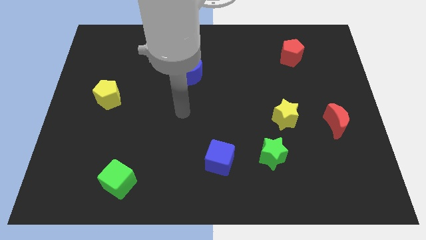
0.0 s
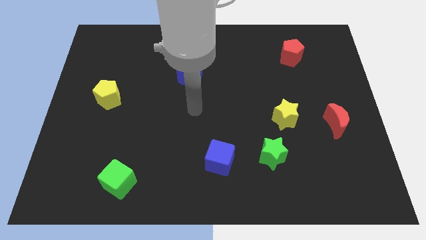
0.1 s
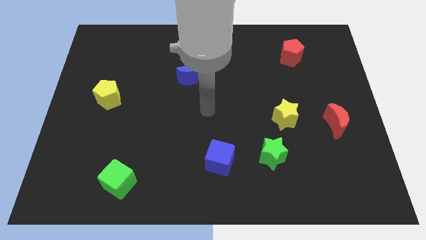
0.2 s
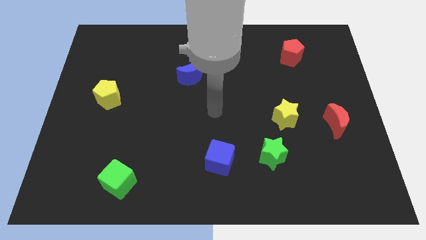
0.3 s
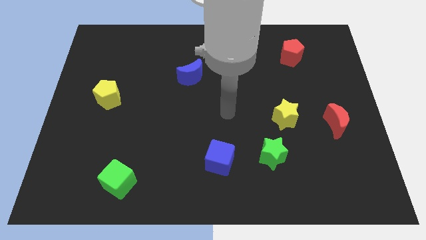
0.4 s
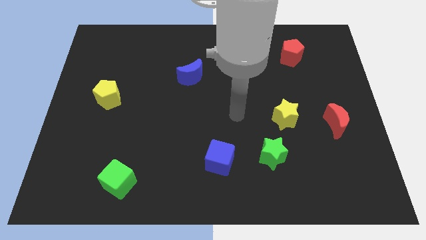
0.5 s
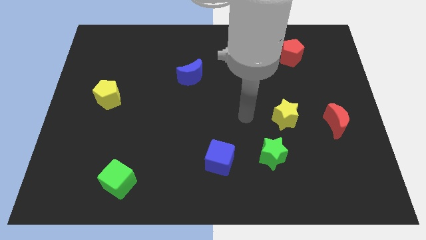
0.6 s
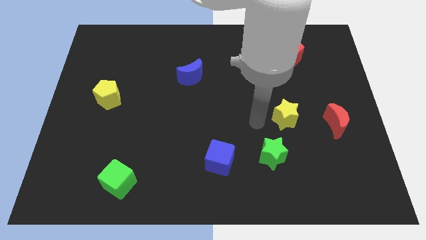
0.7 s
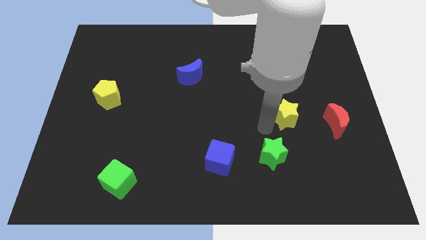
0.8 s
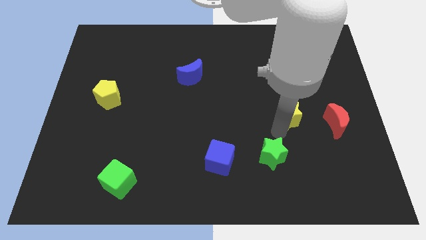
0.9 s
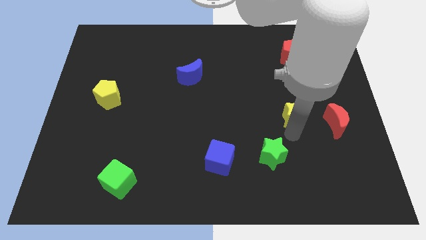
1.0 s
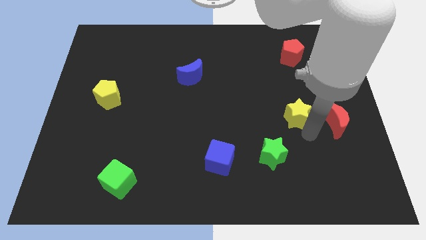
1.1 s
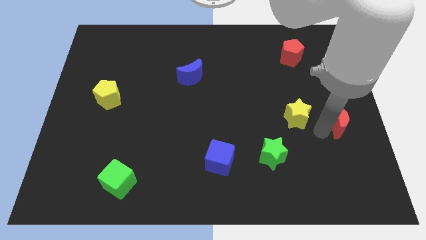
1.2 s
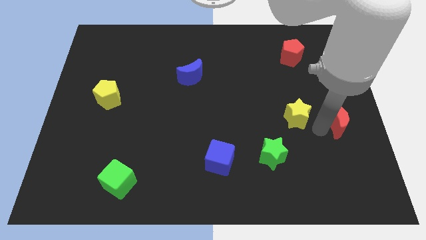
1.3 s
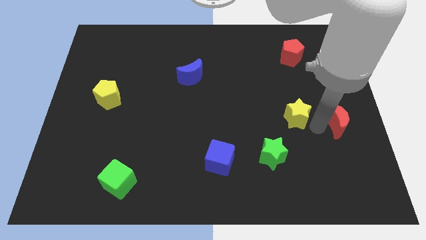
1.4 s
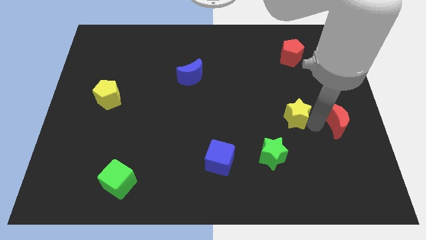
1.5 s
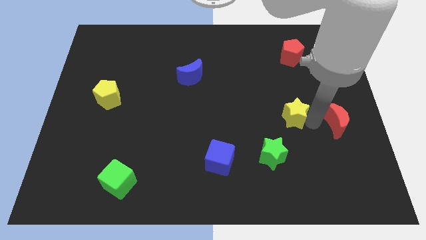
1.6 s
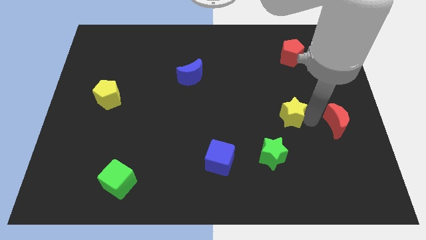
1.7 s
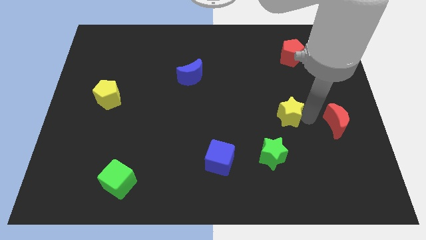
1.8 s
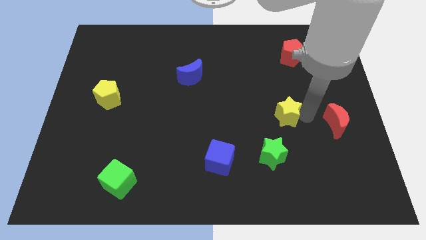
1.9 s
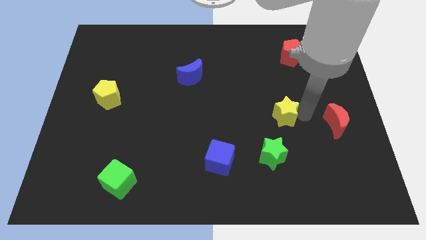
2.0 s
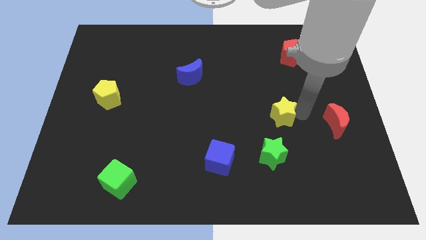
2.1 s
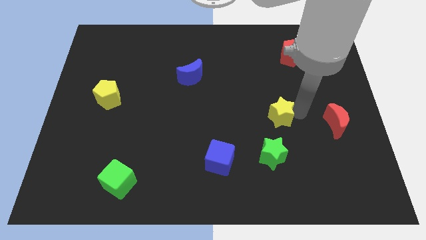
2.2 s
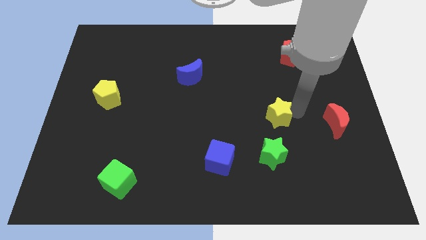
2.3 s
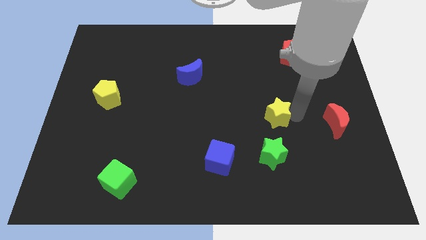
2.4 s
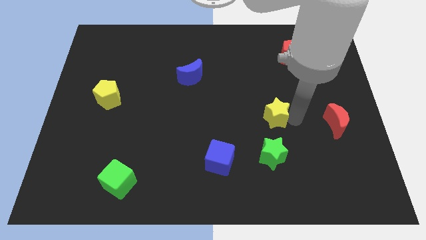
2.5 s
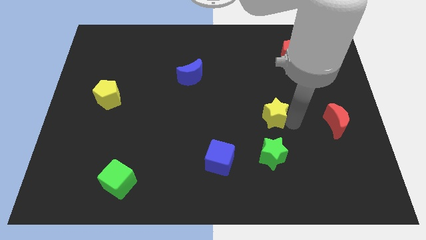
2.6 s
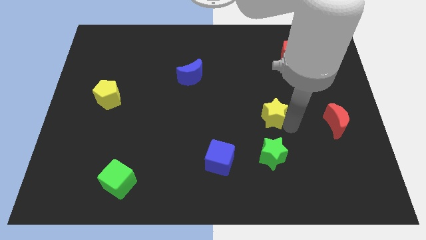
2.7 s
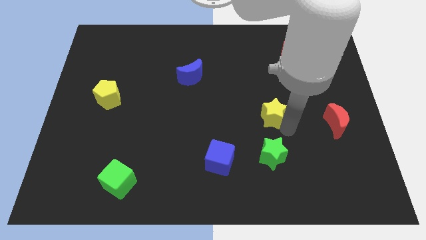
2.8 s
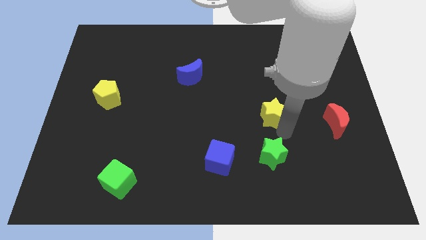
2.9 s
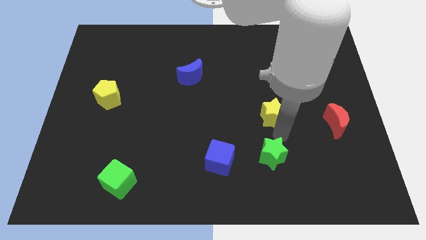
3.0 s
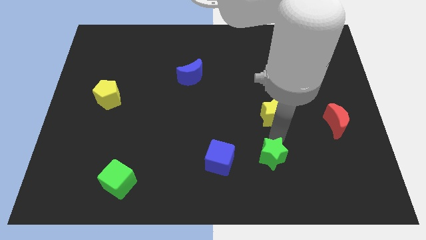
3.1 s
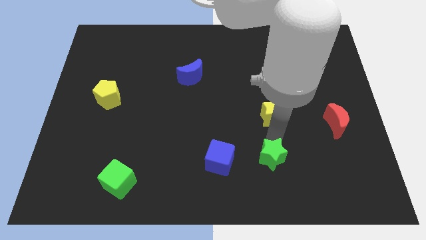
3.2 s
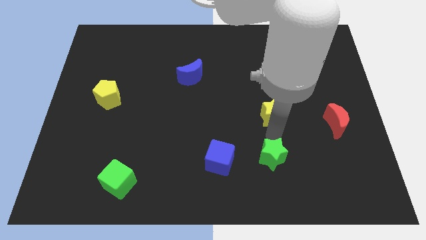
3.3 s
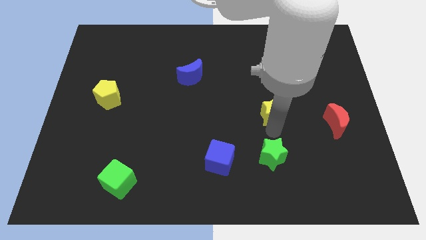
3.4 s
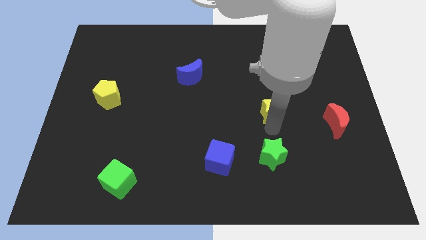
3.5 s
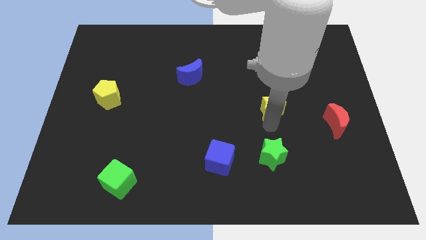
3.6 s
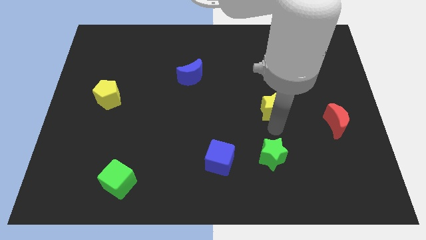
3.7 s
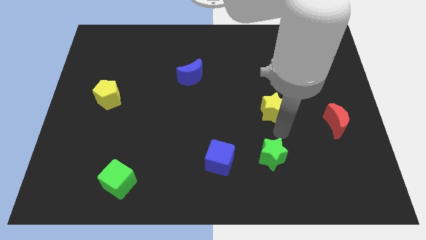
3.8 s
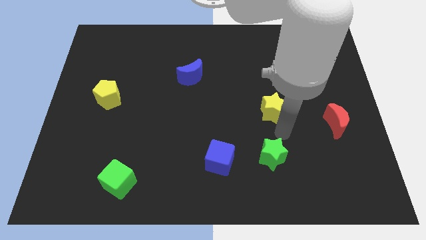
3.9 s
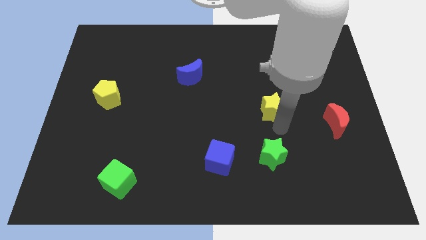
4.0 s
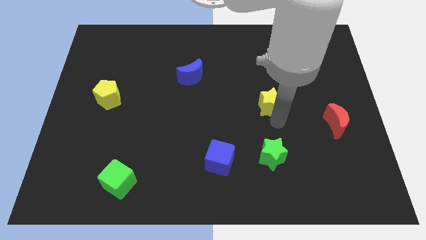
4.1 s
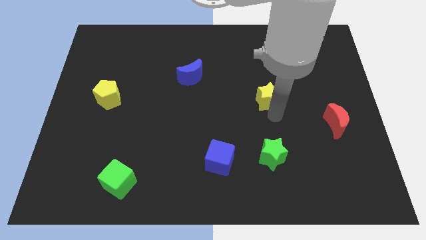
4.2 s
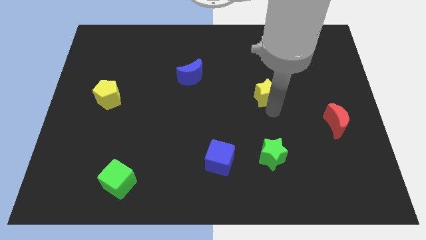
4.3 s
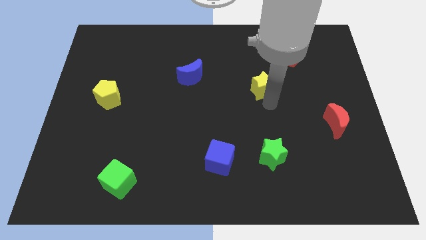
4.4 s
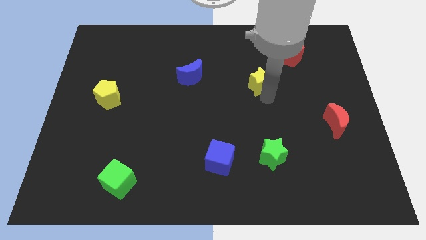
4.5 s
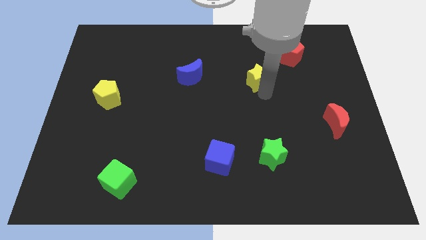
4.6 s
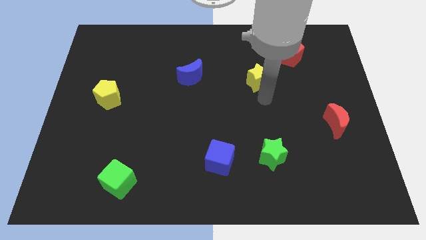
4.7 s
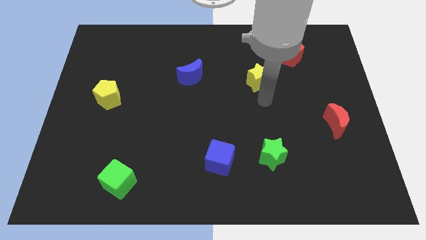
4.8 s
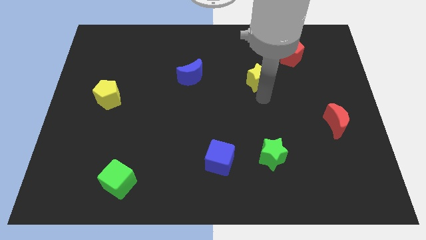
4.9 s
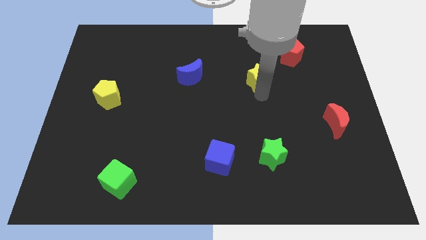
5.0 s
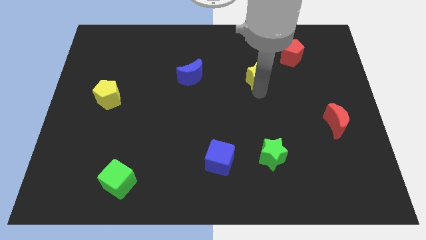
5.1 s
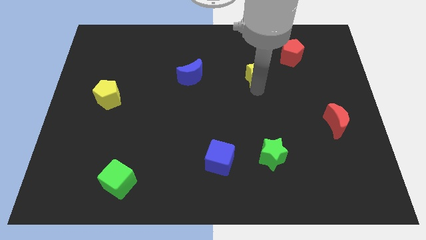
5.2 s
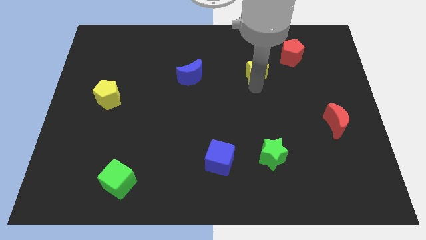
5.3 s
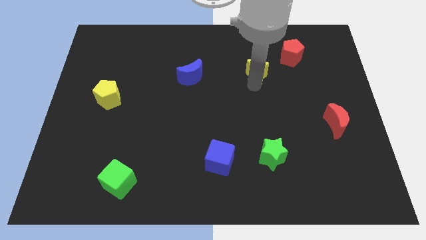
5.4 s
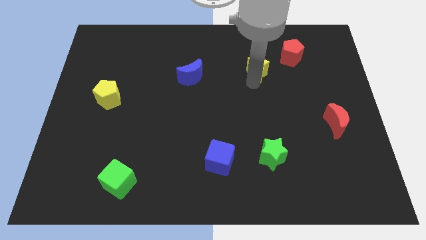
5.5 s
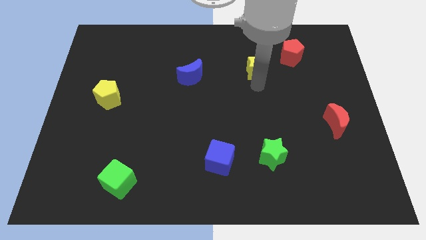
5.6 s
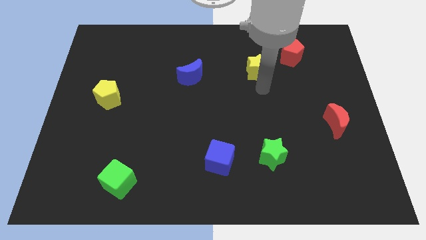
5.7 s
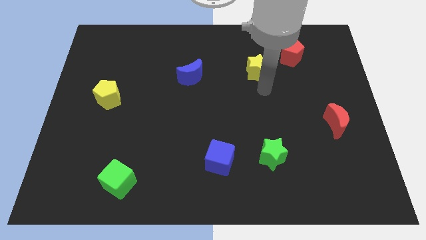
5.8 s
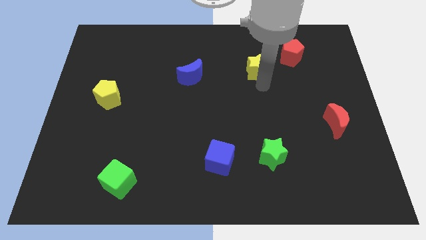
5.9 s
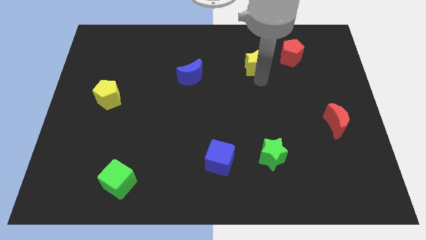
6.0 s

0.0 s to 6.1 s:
slide the yellow star to the left side of the red pentagon

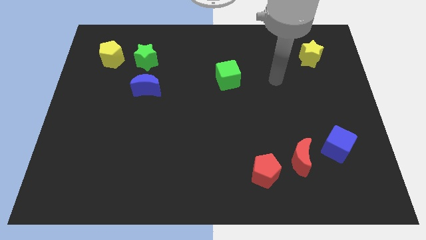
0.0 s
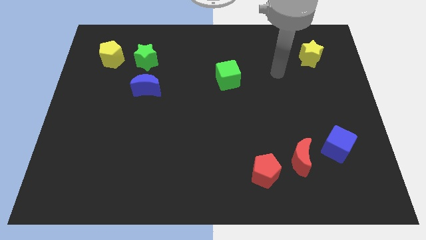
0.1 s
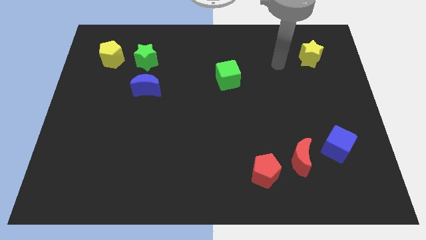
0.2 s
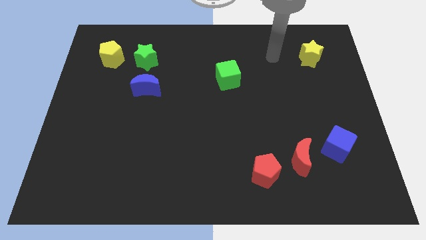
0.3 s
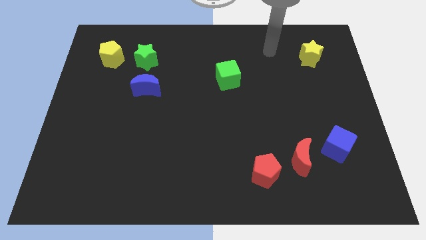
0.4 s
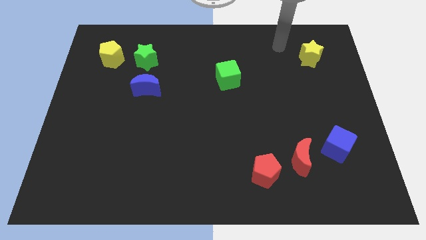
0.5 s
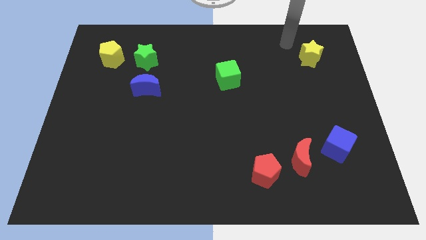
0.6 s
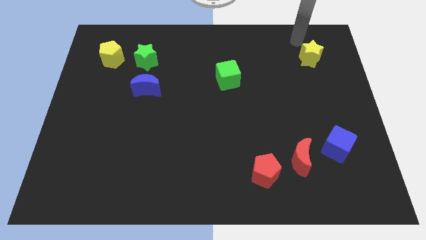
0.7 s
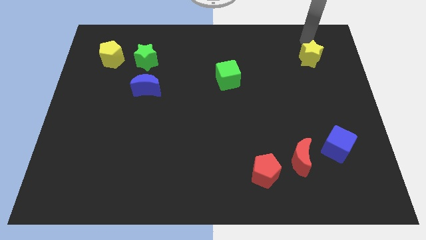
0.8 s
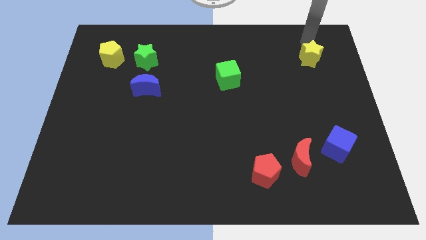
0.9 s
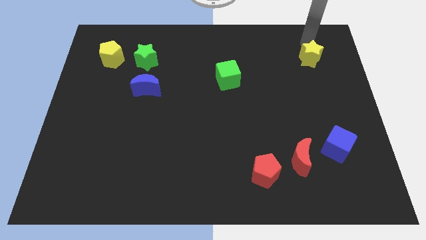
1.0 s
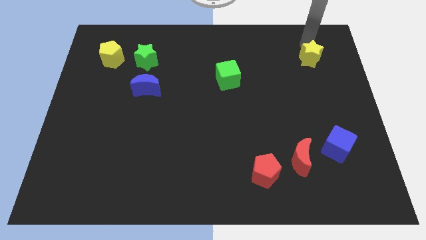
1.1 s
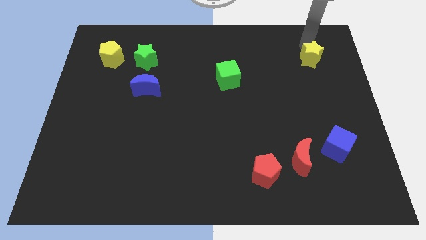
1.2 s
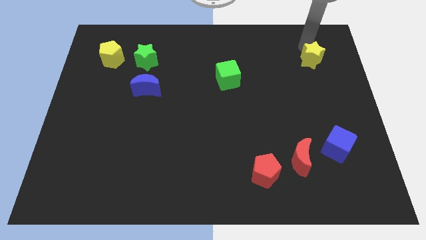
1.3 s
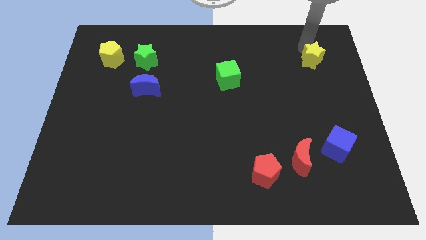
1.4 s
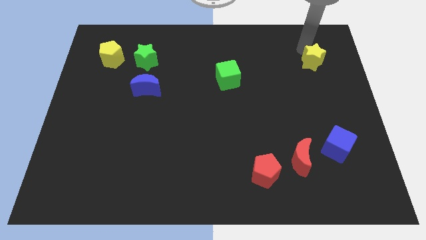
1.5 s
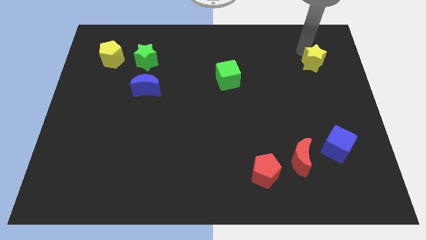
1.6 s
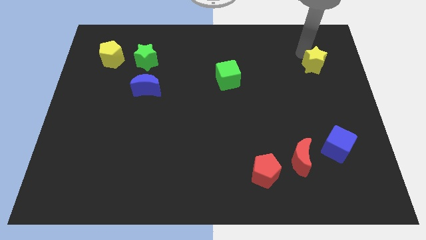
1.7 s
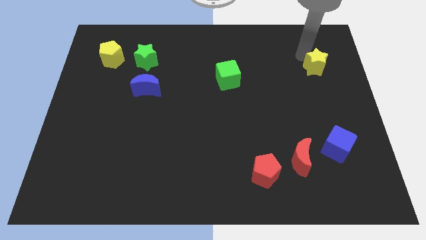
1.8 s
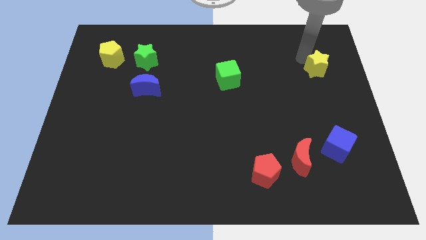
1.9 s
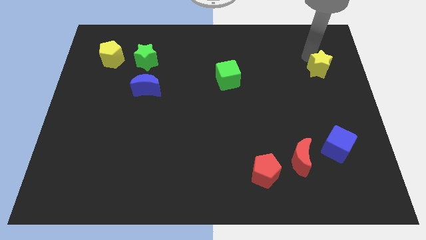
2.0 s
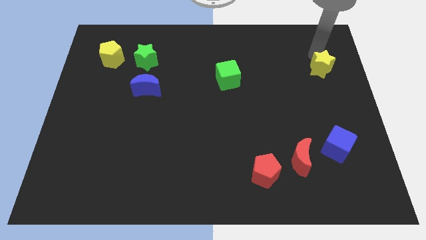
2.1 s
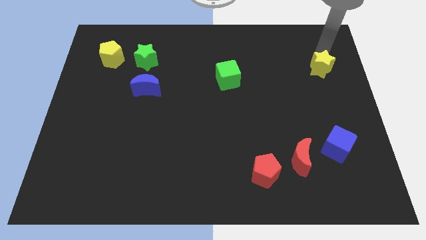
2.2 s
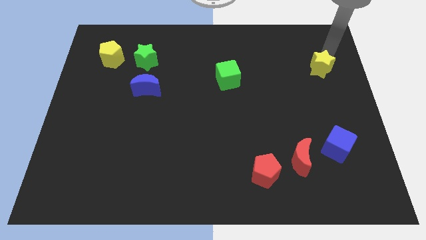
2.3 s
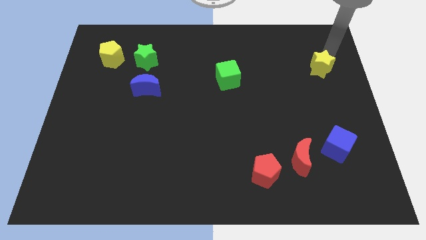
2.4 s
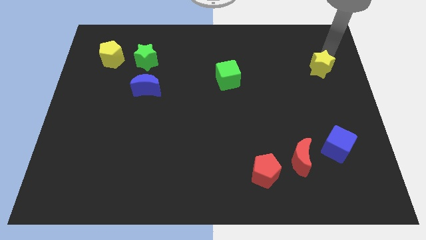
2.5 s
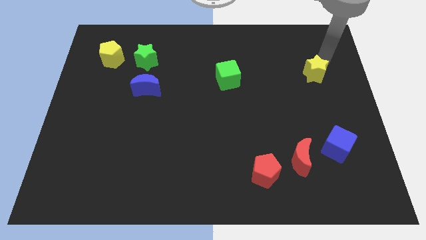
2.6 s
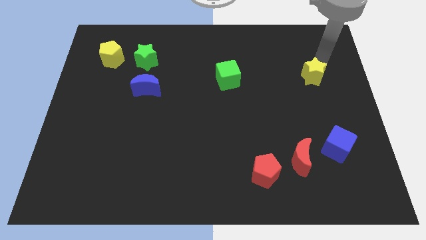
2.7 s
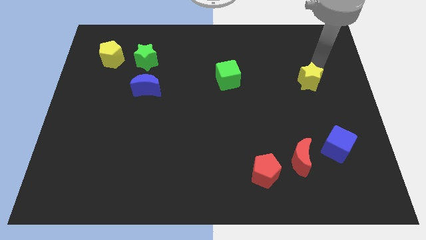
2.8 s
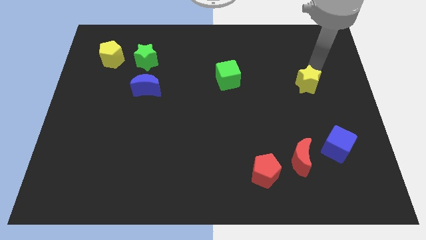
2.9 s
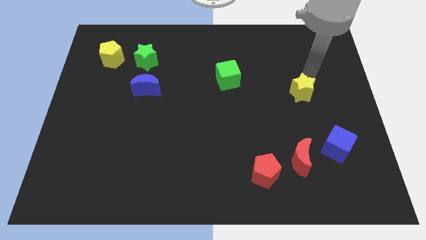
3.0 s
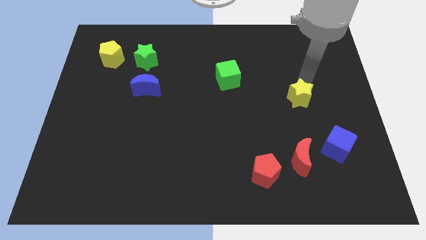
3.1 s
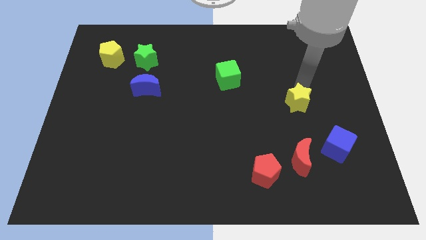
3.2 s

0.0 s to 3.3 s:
move the yellow star above the red moon
